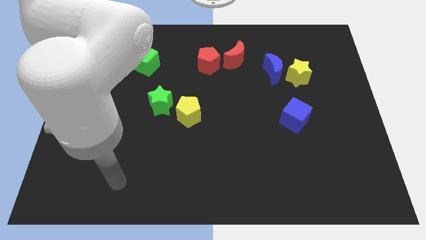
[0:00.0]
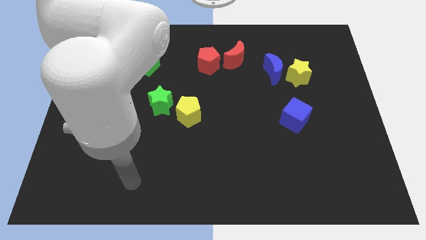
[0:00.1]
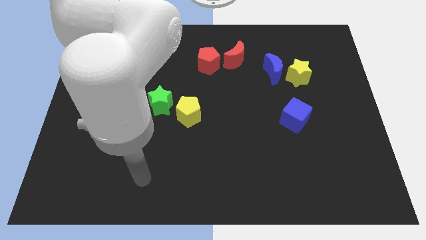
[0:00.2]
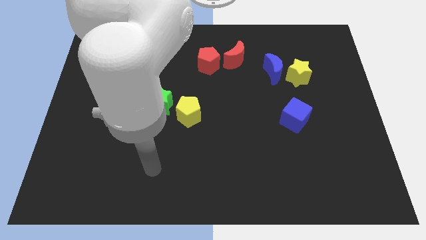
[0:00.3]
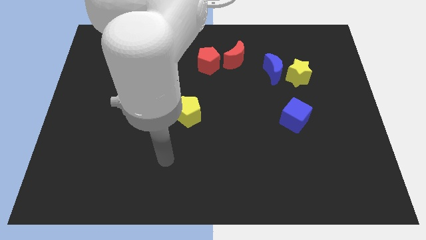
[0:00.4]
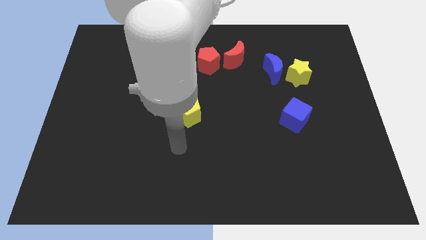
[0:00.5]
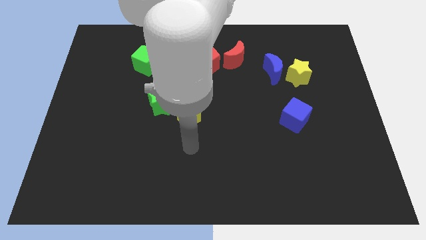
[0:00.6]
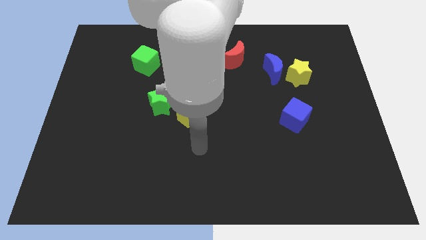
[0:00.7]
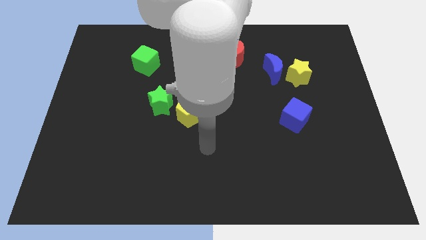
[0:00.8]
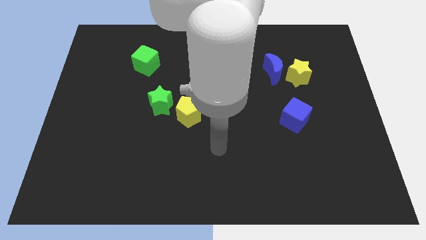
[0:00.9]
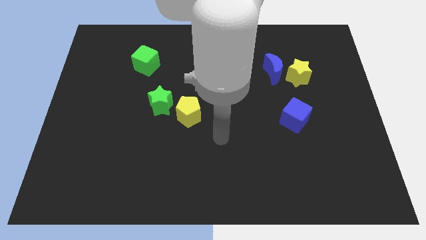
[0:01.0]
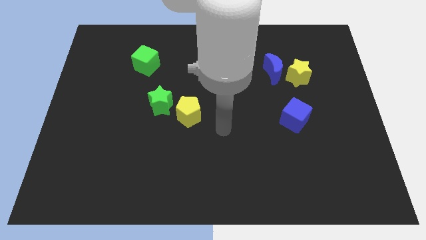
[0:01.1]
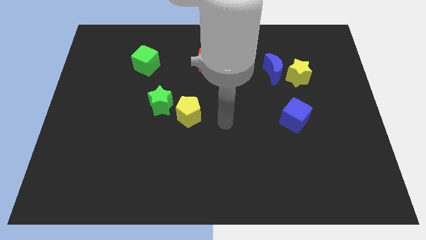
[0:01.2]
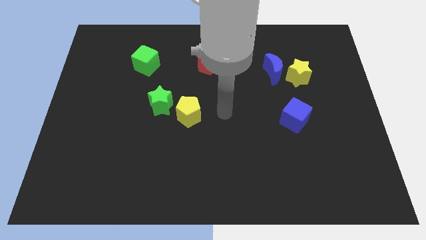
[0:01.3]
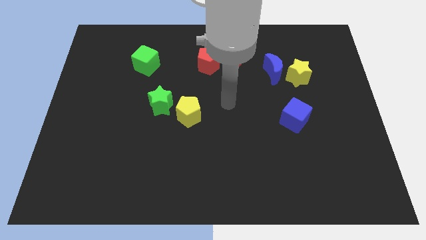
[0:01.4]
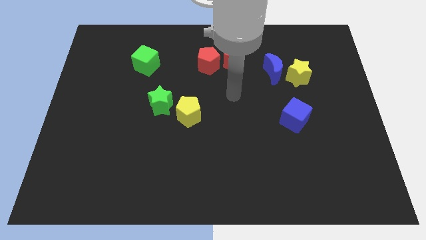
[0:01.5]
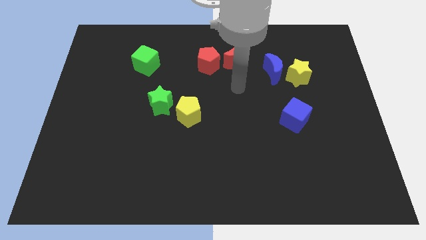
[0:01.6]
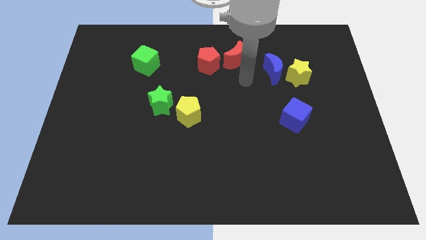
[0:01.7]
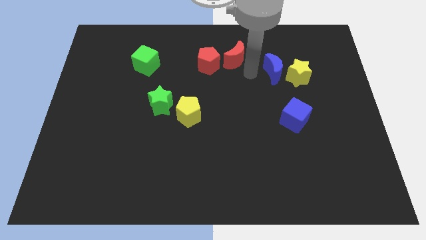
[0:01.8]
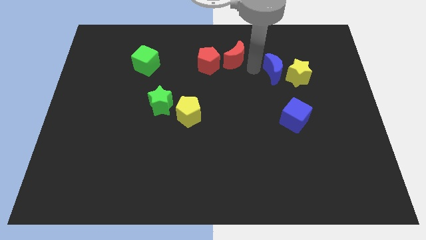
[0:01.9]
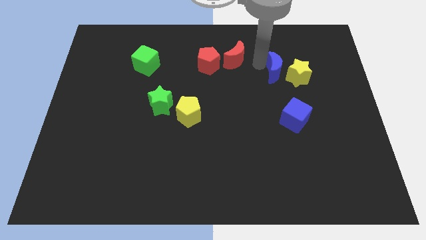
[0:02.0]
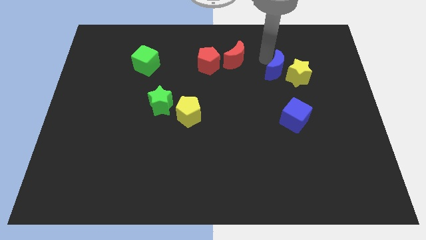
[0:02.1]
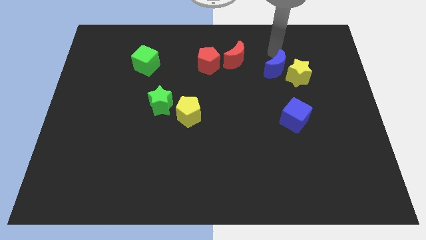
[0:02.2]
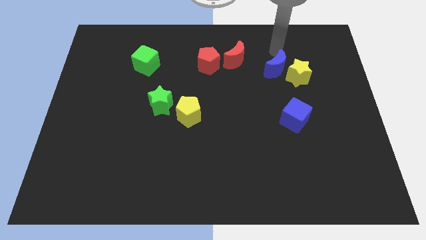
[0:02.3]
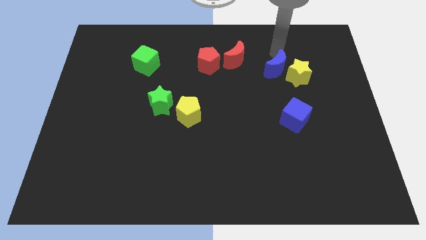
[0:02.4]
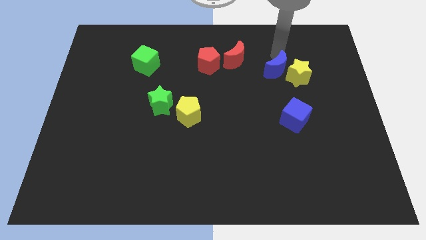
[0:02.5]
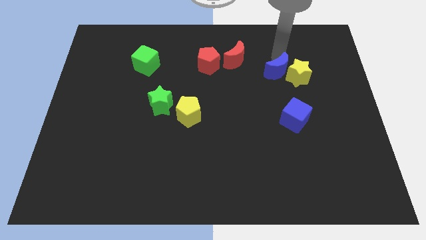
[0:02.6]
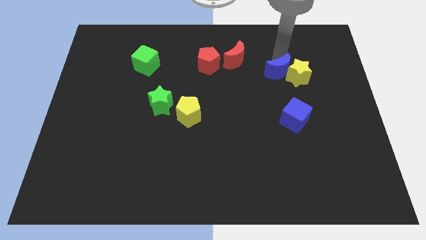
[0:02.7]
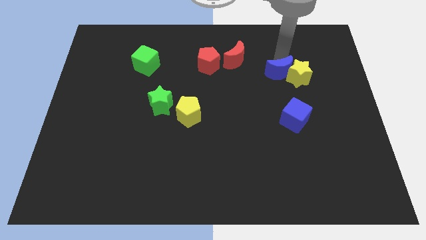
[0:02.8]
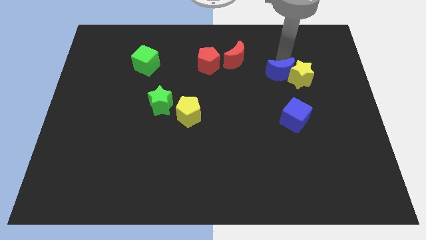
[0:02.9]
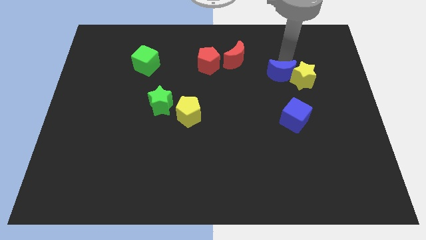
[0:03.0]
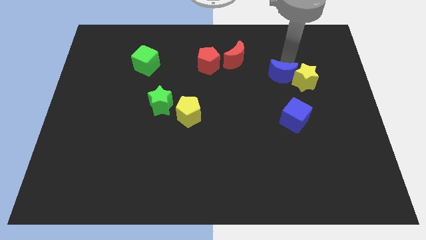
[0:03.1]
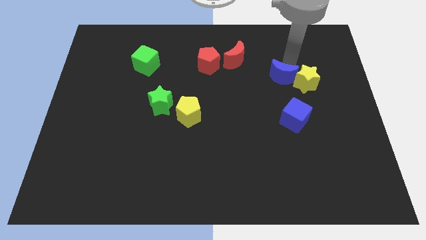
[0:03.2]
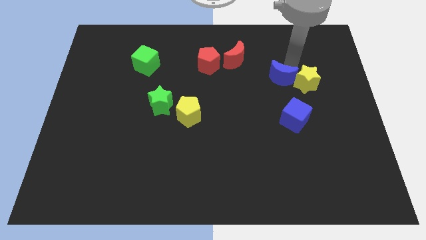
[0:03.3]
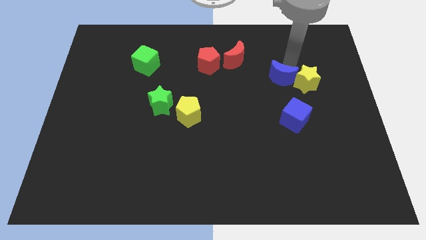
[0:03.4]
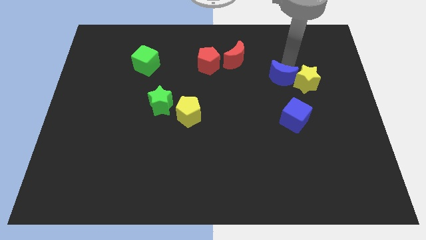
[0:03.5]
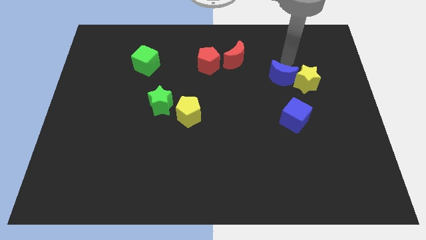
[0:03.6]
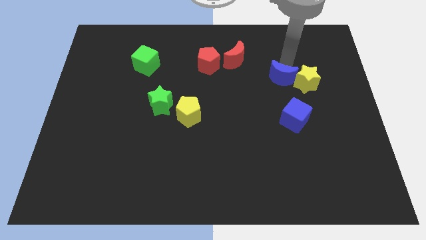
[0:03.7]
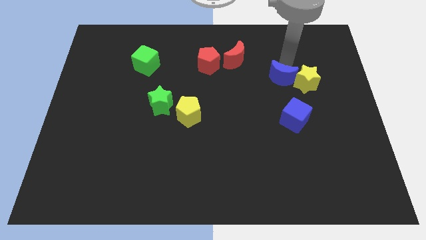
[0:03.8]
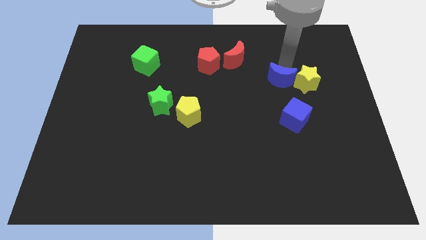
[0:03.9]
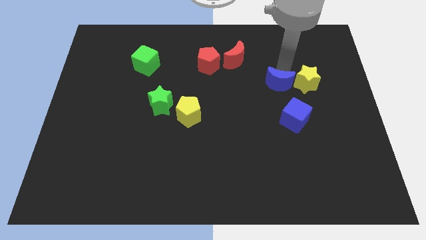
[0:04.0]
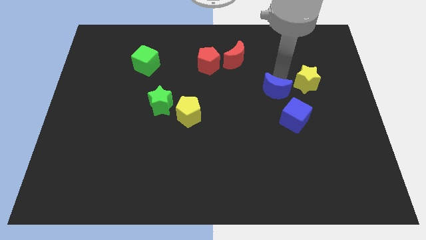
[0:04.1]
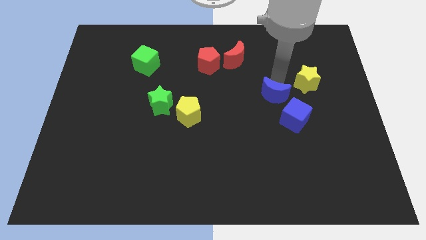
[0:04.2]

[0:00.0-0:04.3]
slide the blue moon down slightly

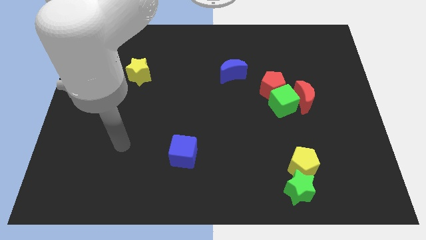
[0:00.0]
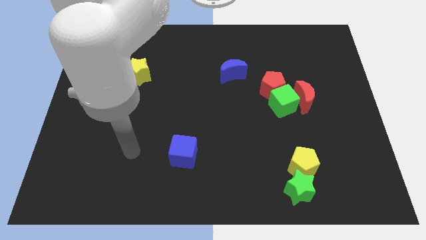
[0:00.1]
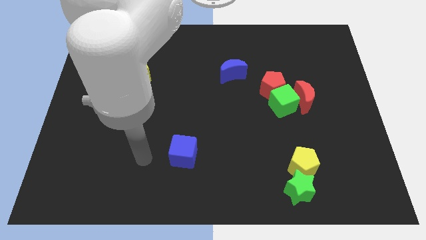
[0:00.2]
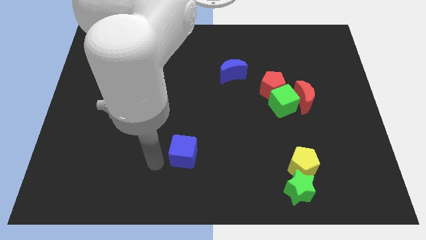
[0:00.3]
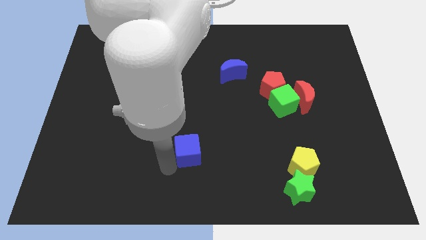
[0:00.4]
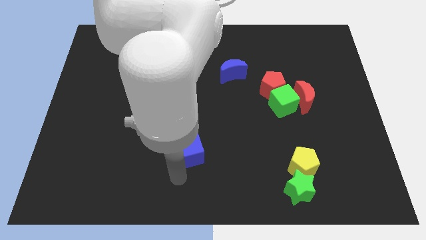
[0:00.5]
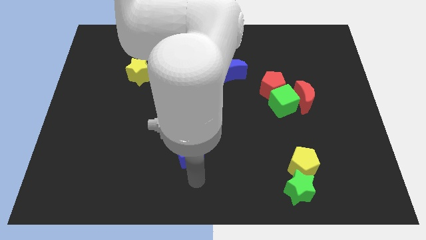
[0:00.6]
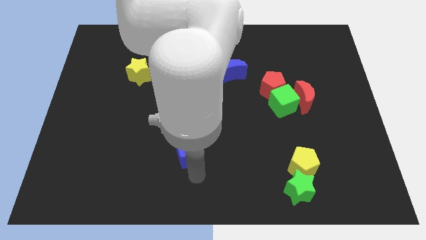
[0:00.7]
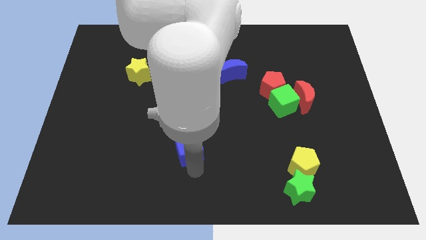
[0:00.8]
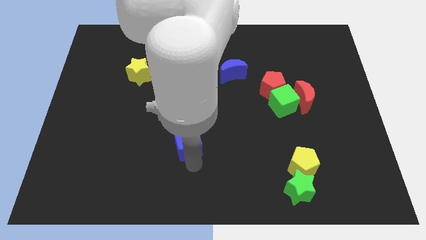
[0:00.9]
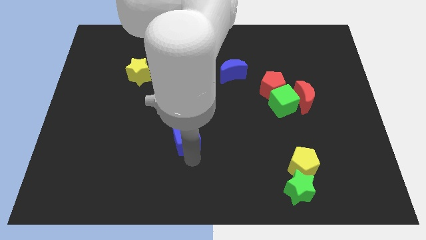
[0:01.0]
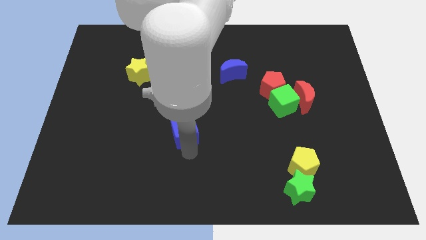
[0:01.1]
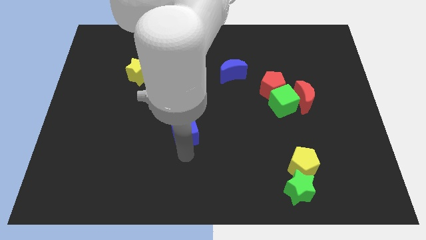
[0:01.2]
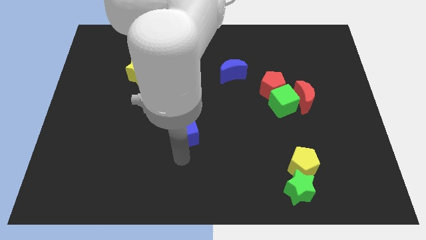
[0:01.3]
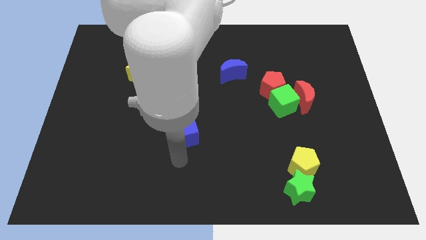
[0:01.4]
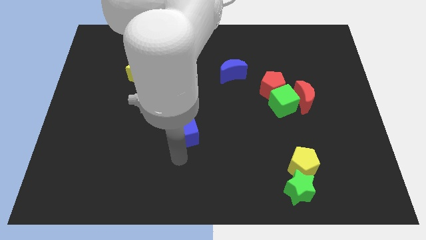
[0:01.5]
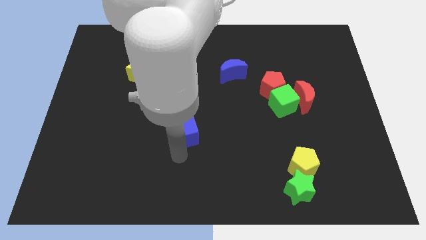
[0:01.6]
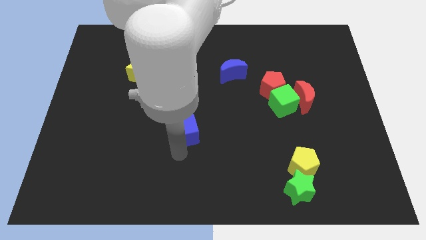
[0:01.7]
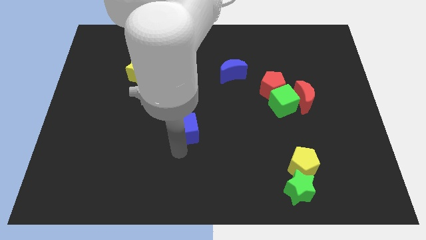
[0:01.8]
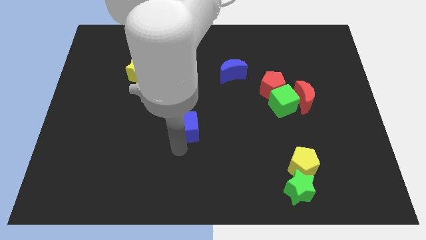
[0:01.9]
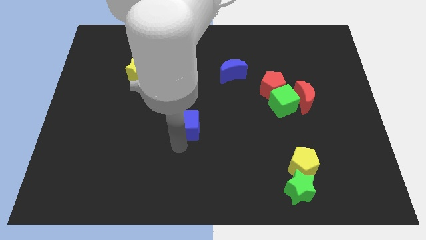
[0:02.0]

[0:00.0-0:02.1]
push the blue cube upwards a bit

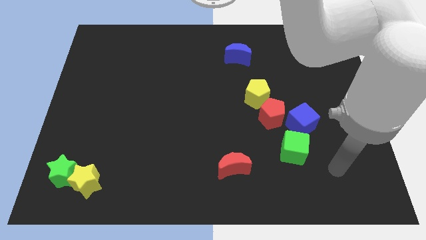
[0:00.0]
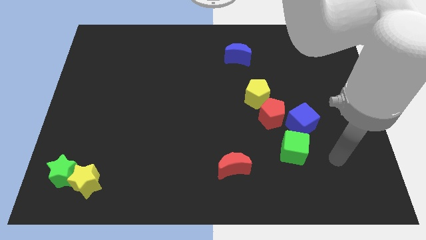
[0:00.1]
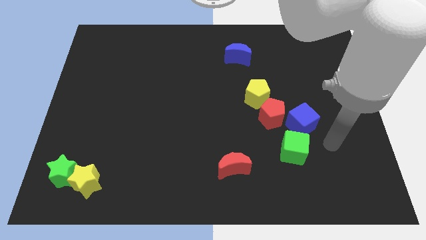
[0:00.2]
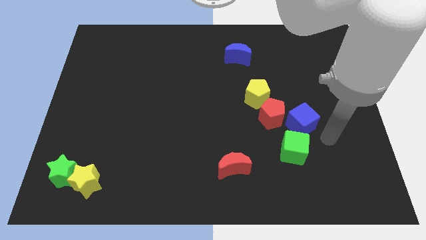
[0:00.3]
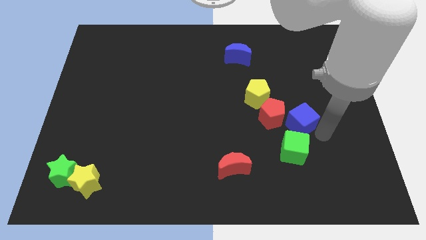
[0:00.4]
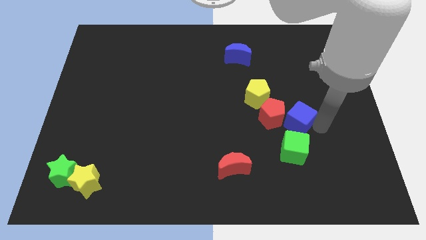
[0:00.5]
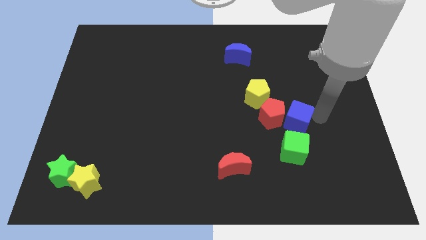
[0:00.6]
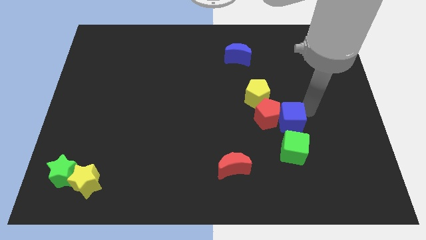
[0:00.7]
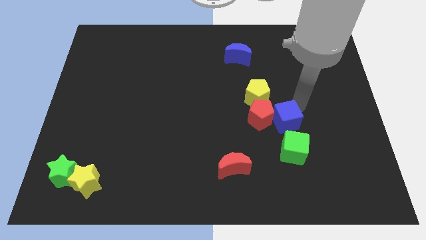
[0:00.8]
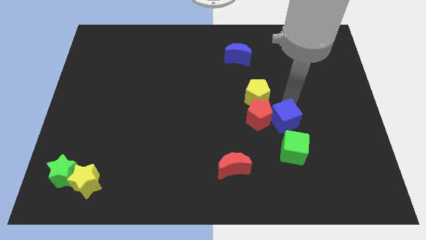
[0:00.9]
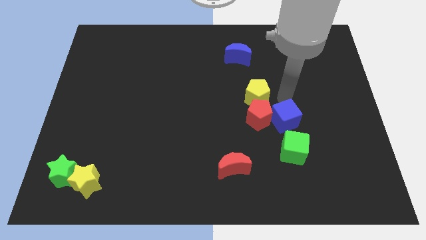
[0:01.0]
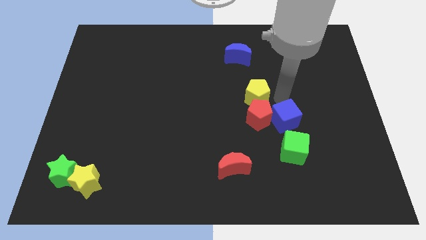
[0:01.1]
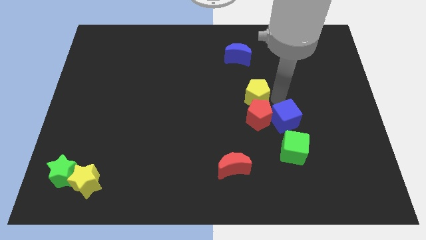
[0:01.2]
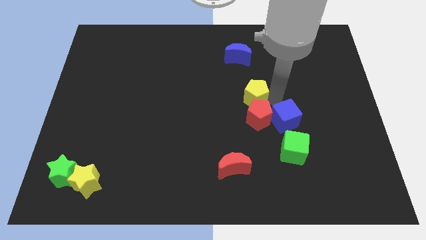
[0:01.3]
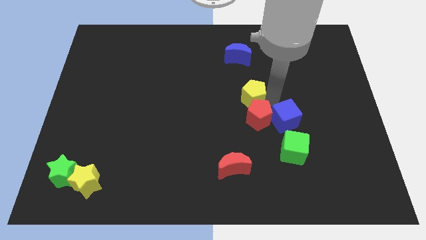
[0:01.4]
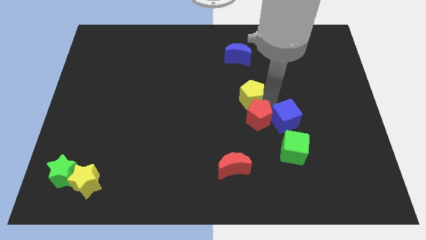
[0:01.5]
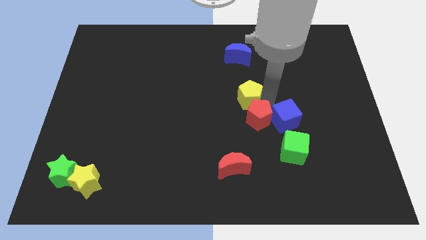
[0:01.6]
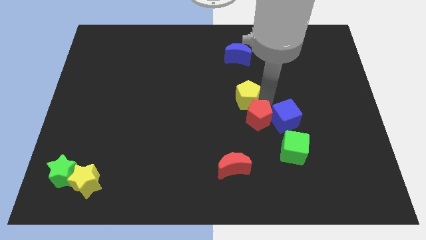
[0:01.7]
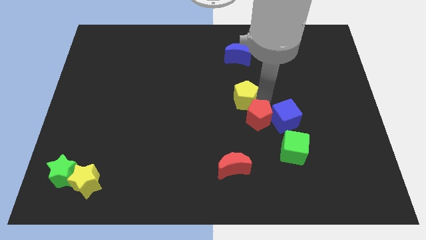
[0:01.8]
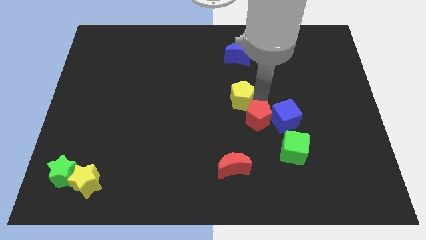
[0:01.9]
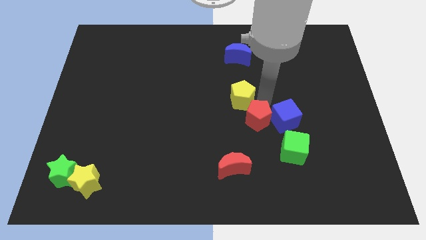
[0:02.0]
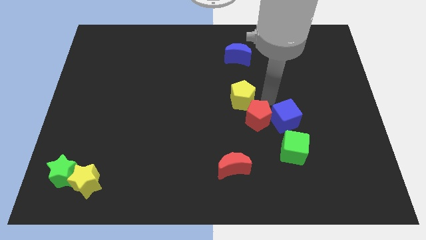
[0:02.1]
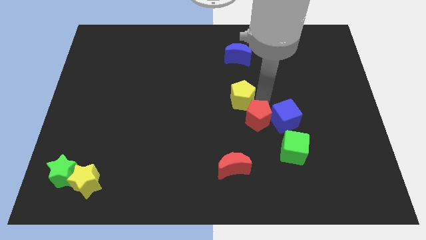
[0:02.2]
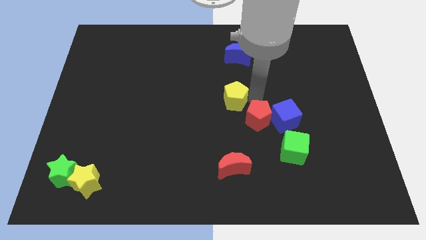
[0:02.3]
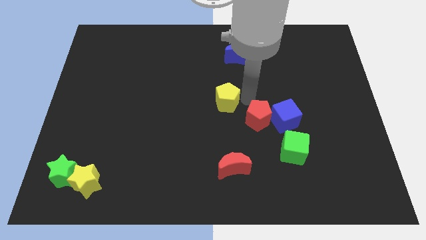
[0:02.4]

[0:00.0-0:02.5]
slightly slide the yellow pentagon left
